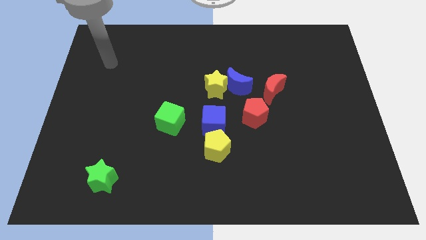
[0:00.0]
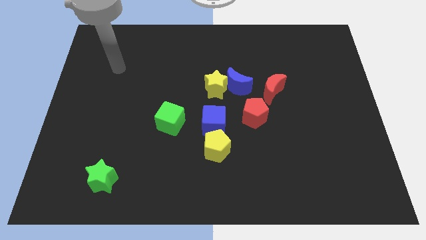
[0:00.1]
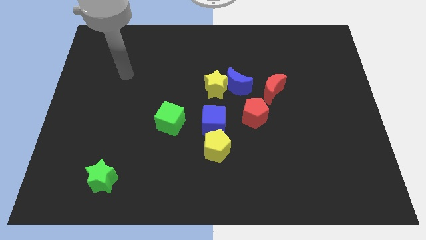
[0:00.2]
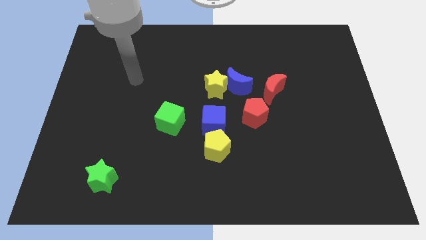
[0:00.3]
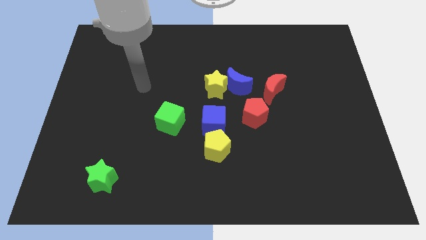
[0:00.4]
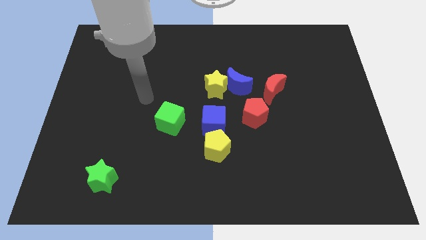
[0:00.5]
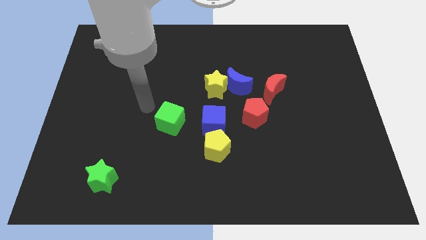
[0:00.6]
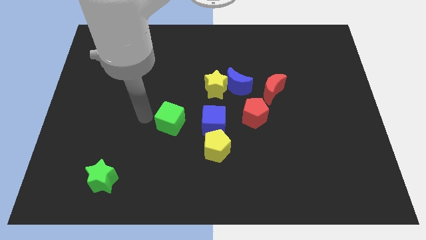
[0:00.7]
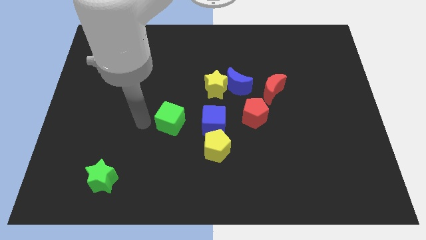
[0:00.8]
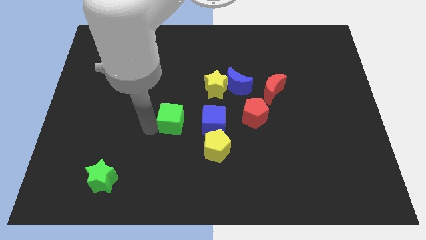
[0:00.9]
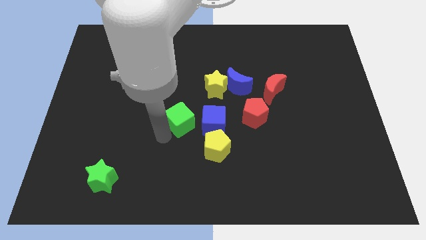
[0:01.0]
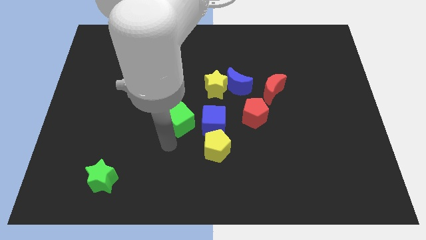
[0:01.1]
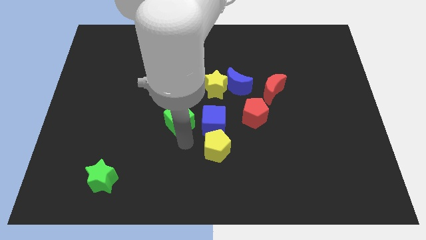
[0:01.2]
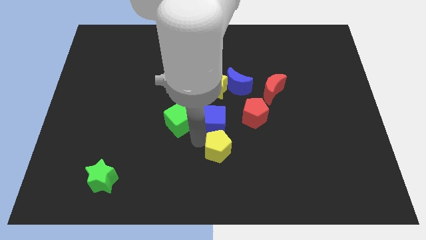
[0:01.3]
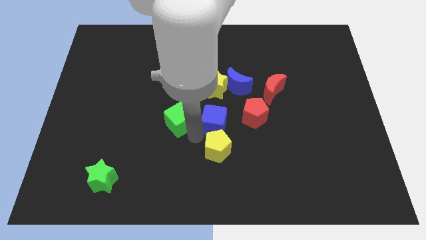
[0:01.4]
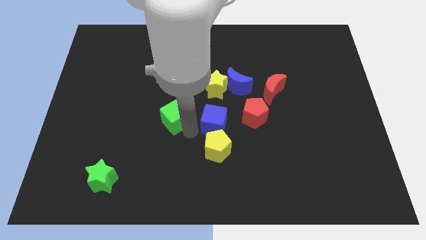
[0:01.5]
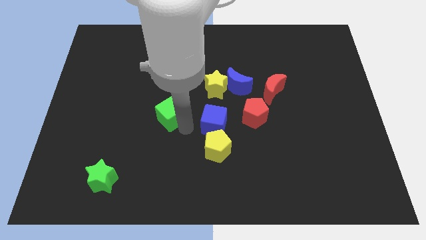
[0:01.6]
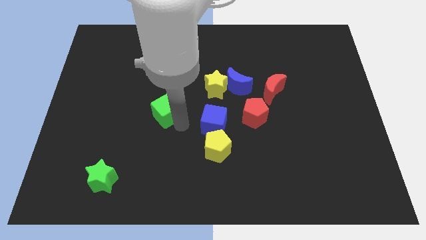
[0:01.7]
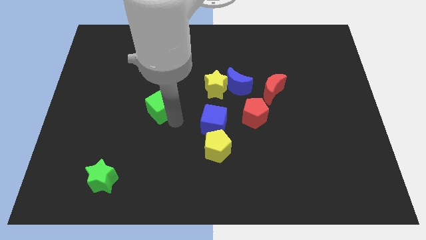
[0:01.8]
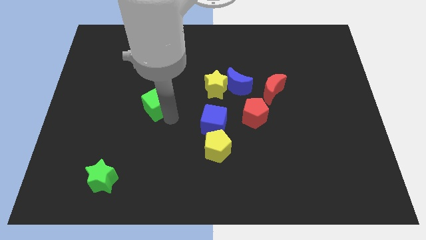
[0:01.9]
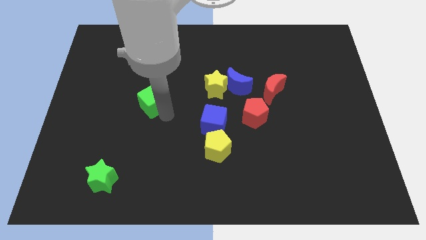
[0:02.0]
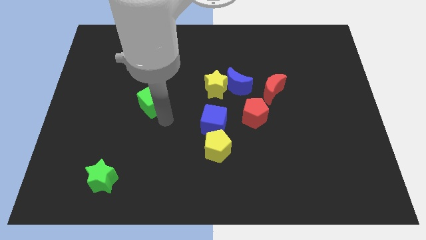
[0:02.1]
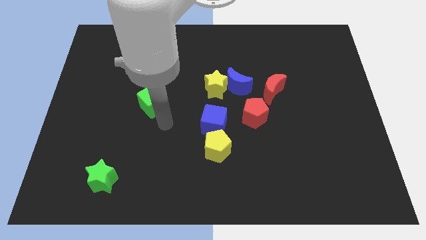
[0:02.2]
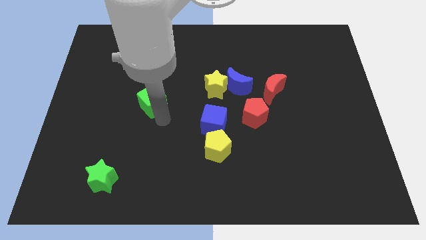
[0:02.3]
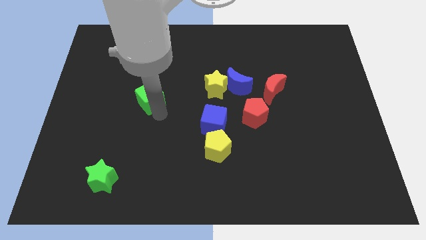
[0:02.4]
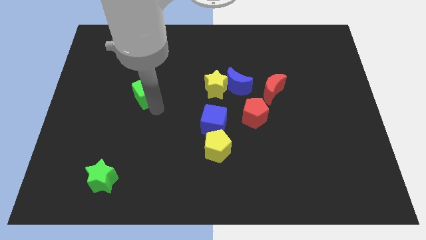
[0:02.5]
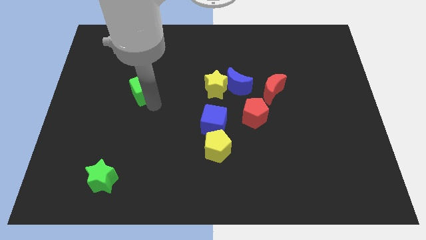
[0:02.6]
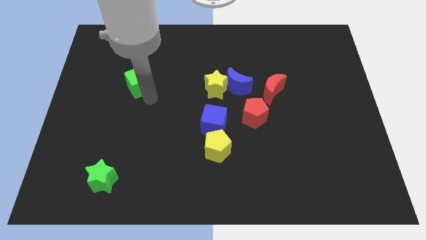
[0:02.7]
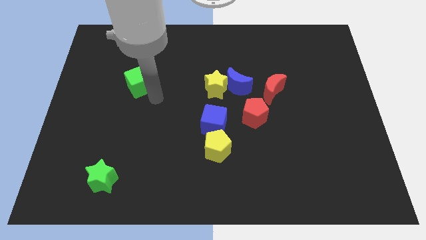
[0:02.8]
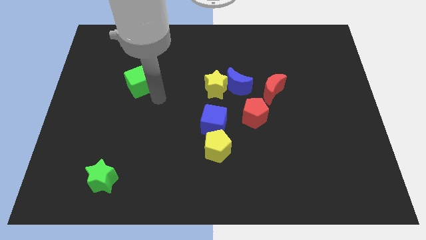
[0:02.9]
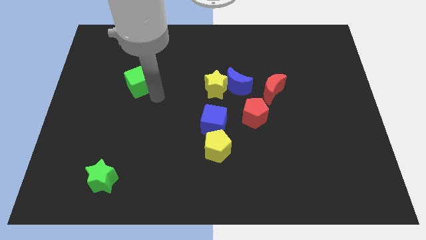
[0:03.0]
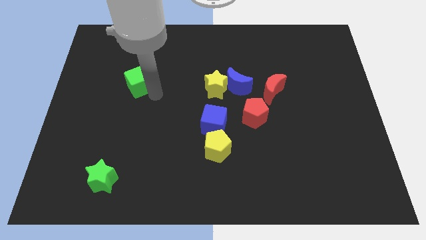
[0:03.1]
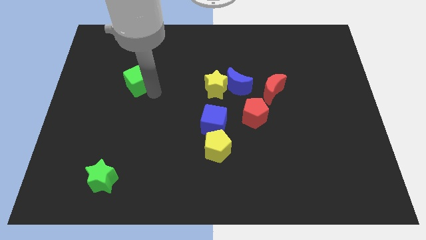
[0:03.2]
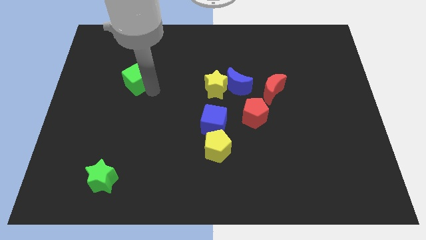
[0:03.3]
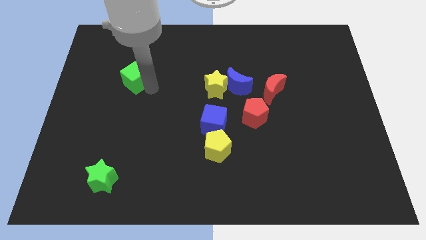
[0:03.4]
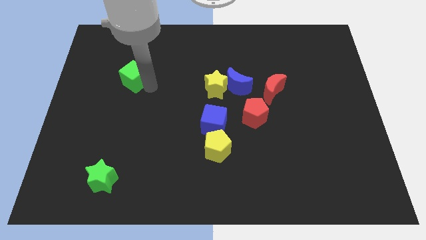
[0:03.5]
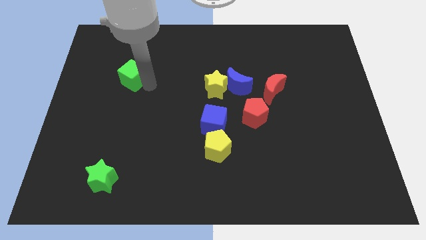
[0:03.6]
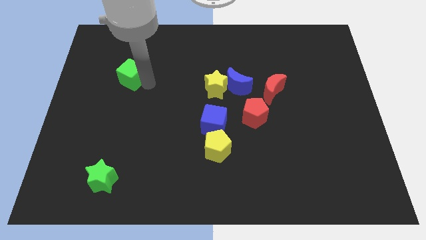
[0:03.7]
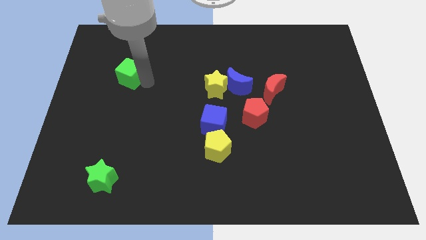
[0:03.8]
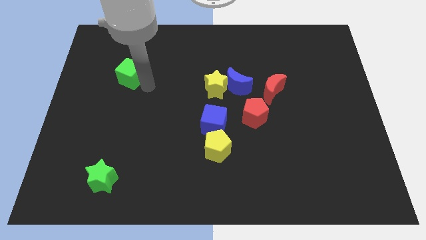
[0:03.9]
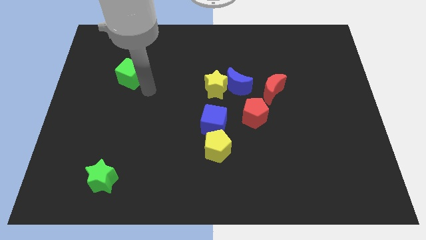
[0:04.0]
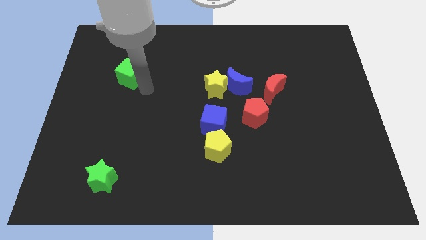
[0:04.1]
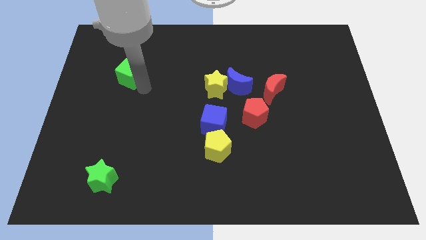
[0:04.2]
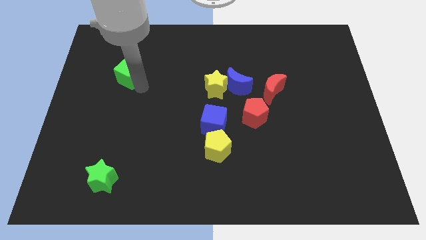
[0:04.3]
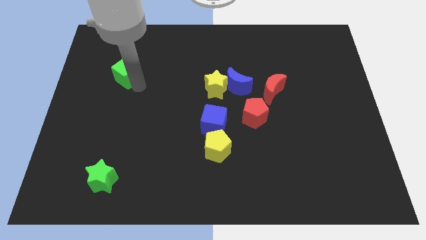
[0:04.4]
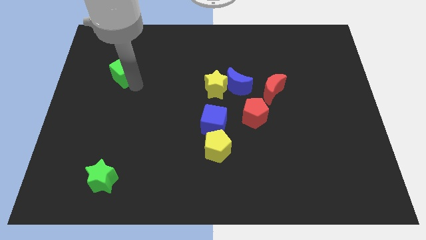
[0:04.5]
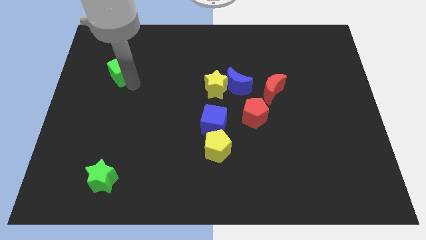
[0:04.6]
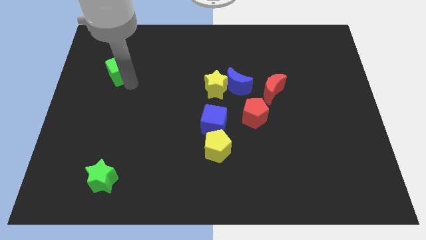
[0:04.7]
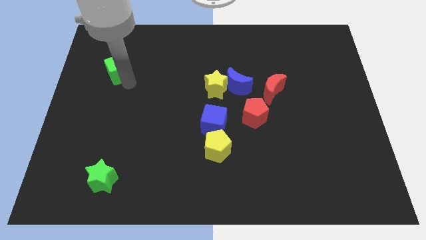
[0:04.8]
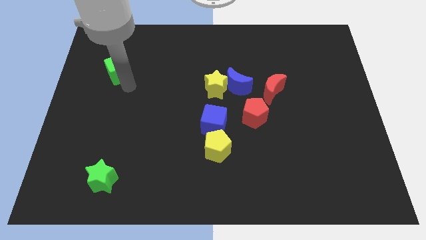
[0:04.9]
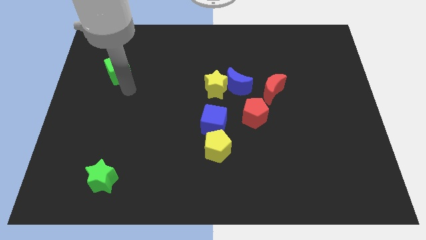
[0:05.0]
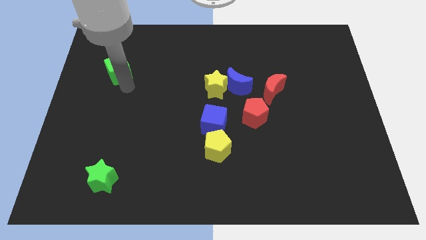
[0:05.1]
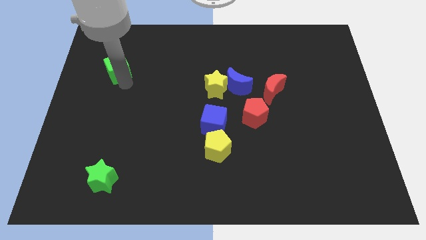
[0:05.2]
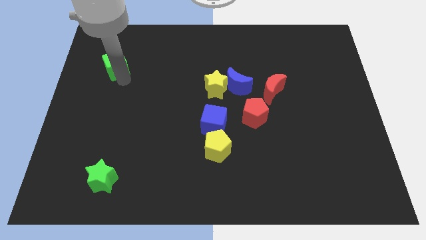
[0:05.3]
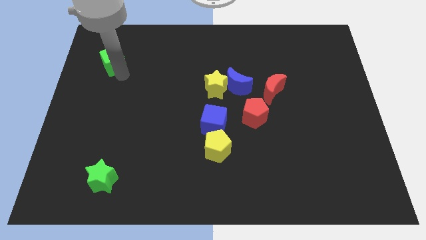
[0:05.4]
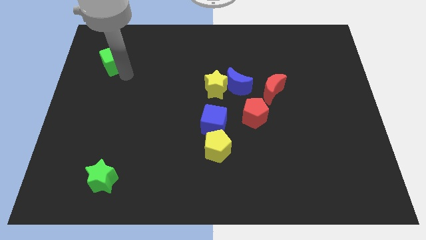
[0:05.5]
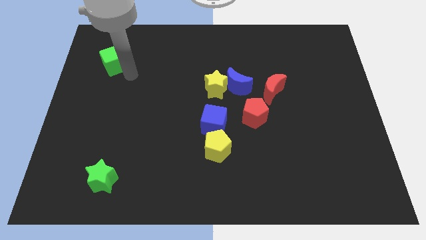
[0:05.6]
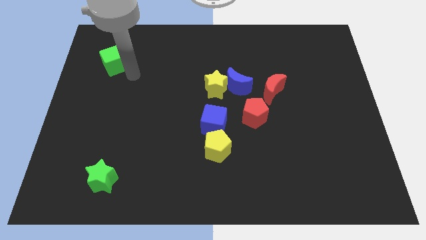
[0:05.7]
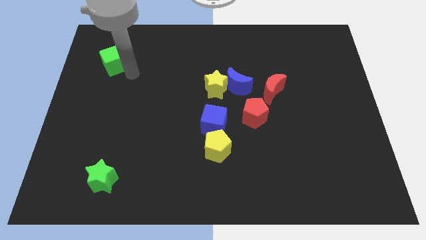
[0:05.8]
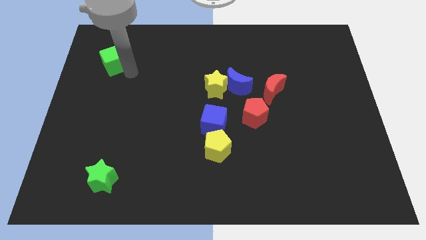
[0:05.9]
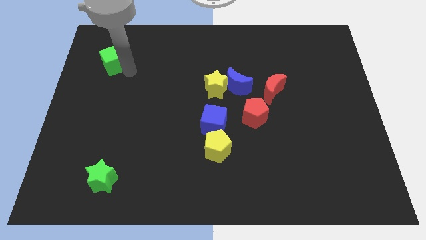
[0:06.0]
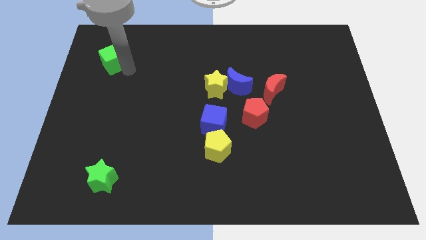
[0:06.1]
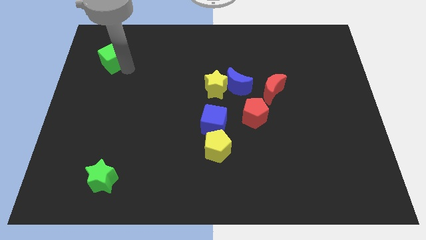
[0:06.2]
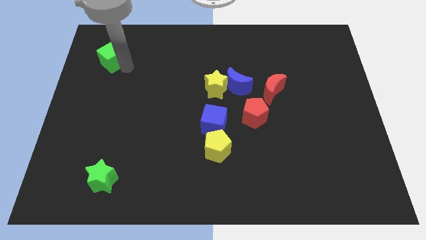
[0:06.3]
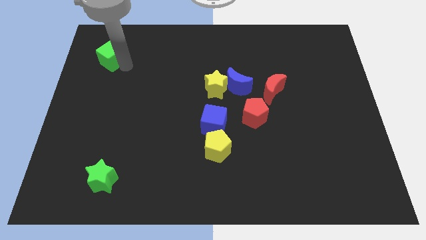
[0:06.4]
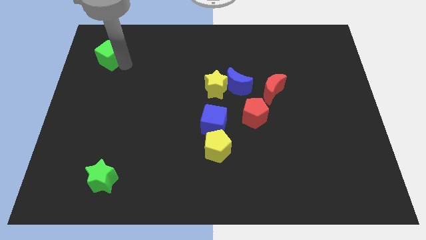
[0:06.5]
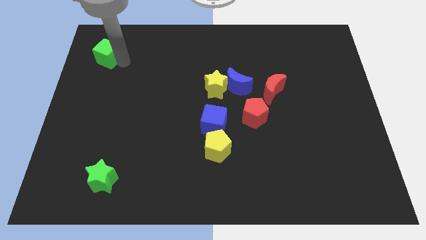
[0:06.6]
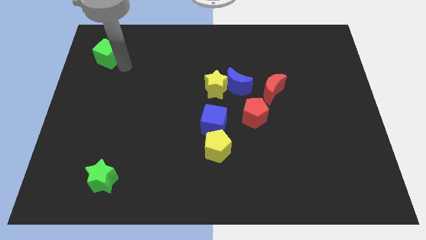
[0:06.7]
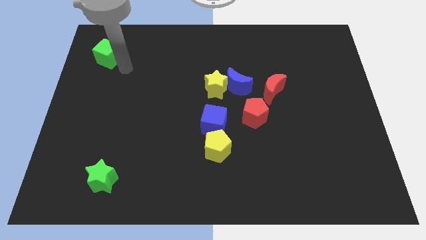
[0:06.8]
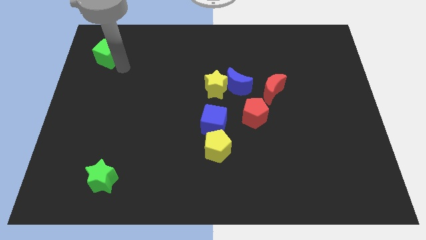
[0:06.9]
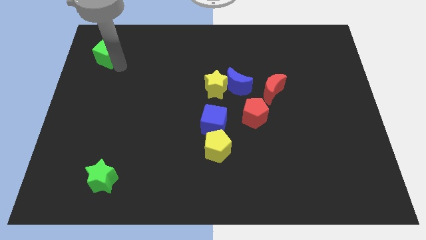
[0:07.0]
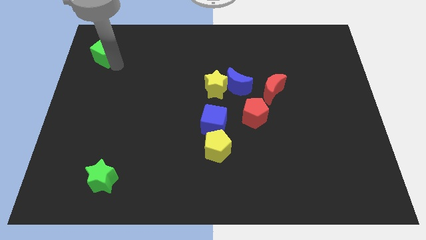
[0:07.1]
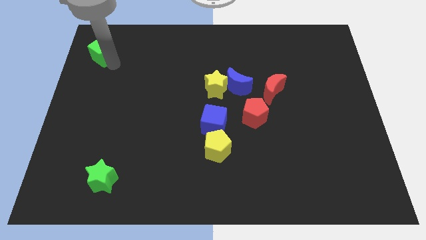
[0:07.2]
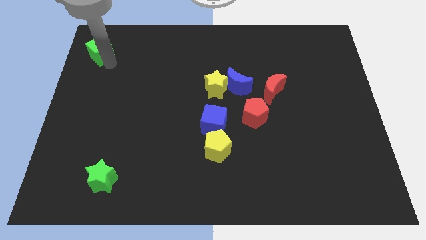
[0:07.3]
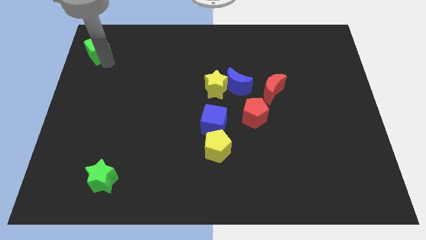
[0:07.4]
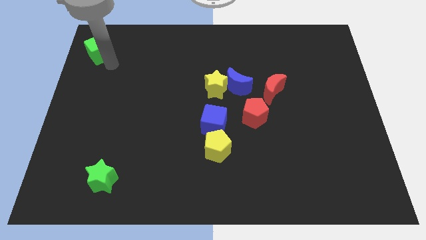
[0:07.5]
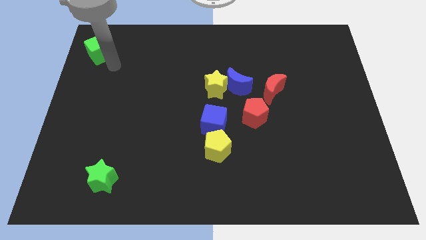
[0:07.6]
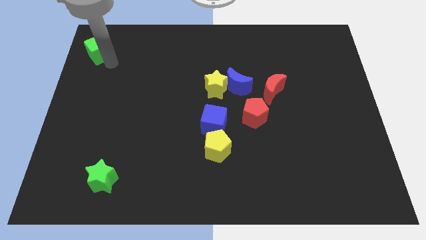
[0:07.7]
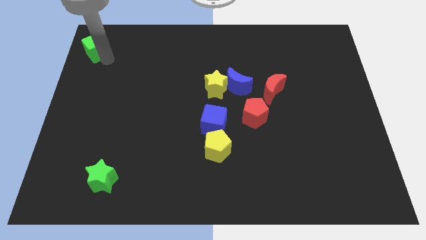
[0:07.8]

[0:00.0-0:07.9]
slide the green cube to the upper left corner
